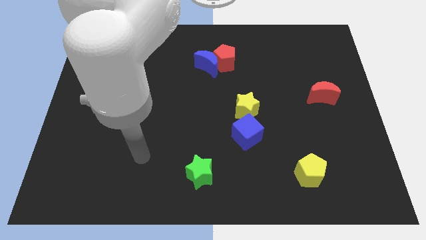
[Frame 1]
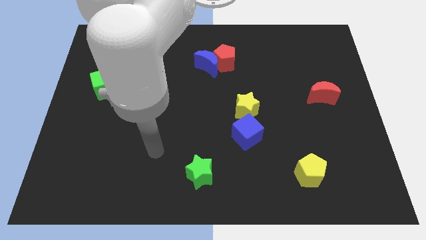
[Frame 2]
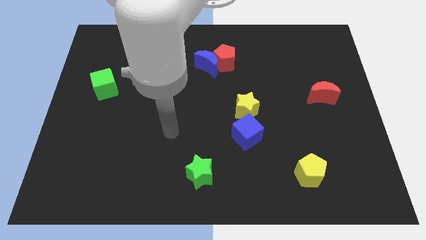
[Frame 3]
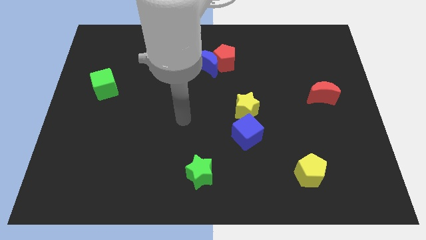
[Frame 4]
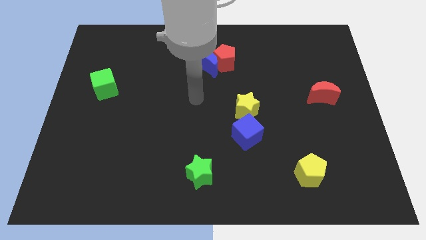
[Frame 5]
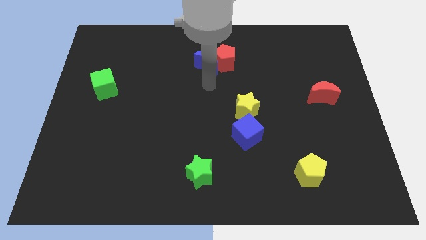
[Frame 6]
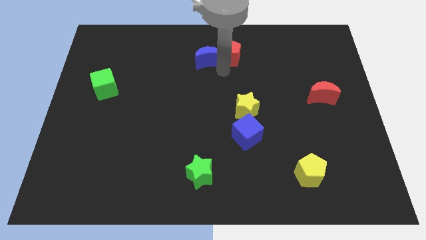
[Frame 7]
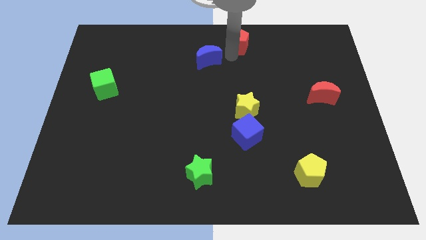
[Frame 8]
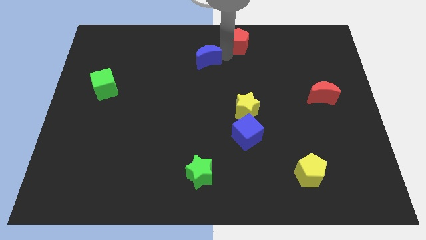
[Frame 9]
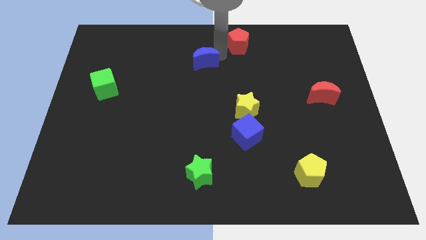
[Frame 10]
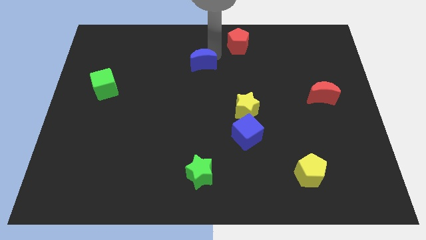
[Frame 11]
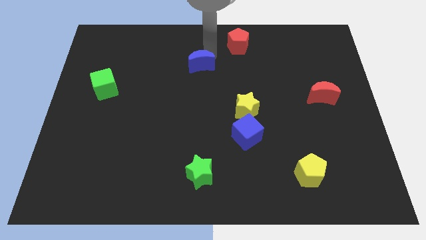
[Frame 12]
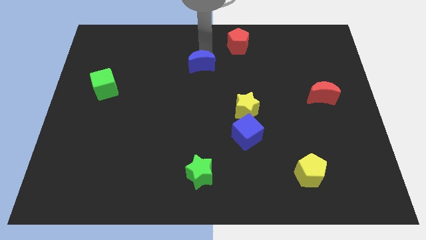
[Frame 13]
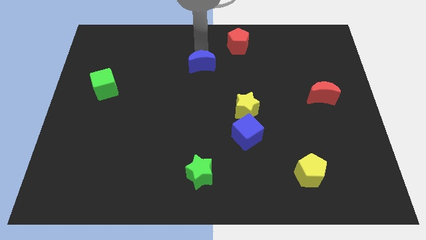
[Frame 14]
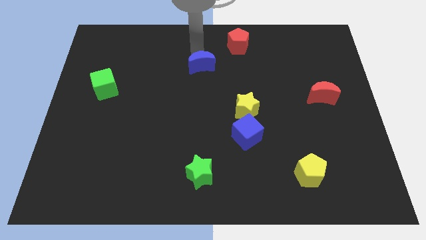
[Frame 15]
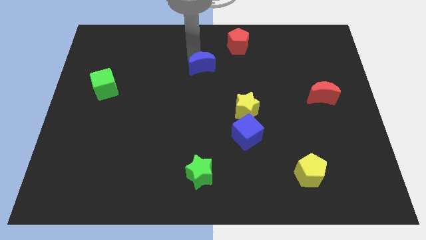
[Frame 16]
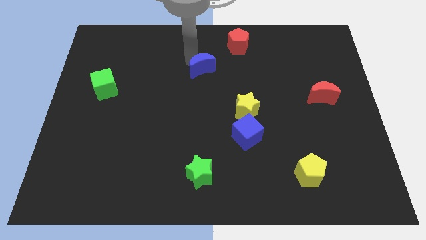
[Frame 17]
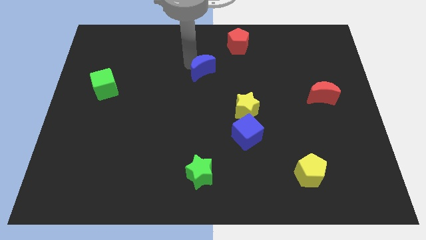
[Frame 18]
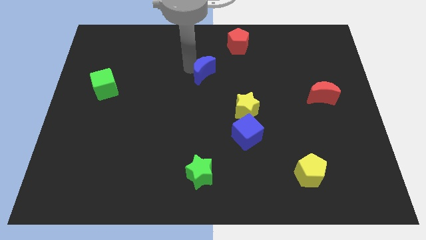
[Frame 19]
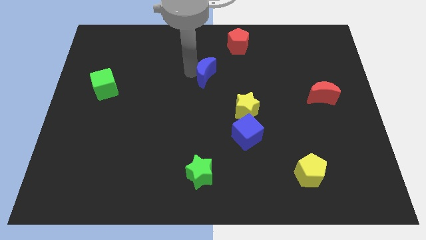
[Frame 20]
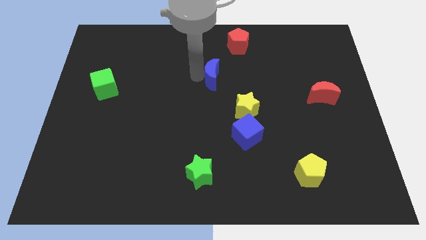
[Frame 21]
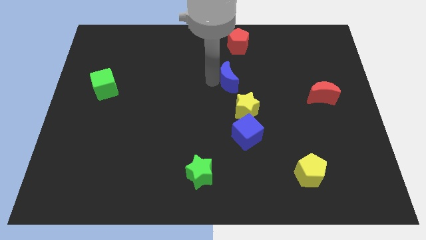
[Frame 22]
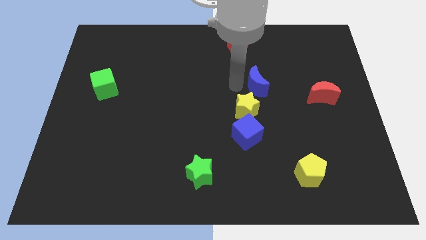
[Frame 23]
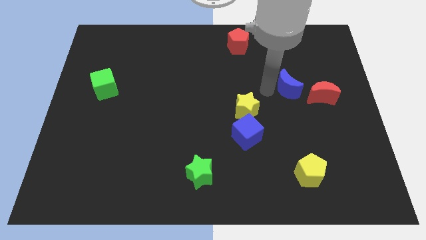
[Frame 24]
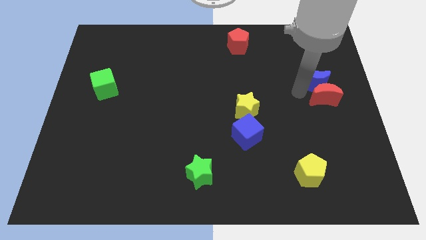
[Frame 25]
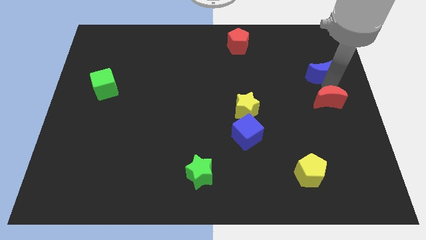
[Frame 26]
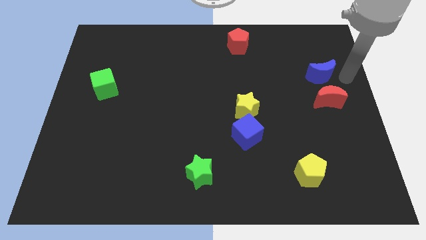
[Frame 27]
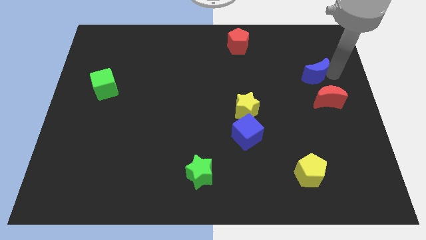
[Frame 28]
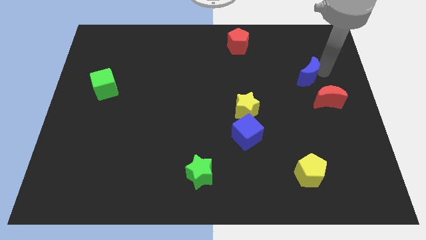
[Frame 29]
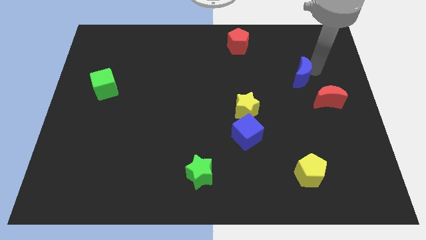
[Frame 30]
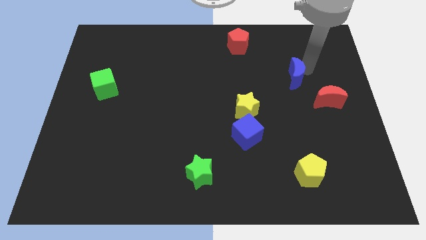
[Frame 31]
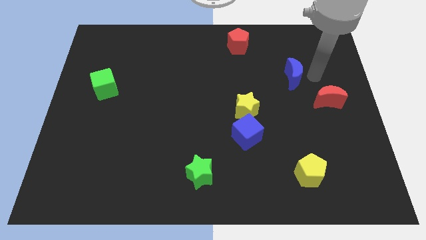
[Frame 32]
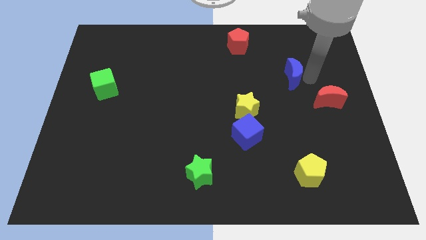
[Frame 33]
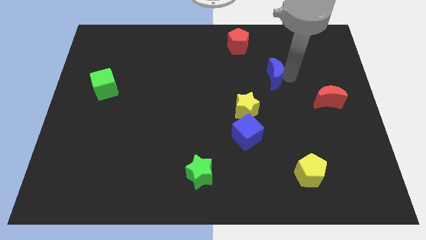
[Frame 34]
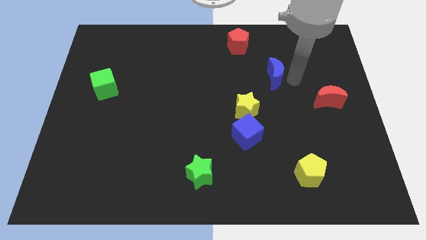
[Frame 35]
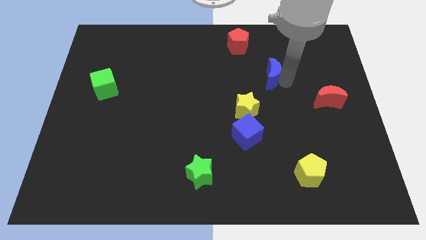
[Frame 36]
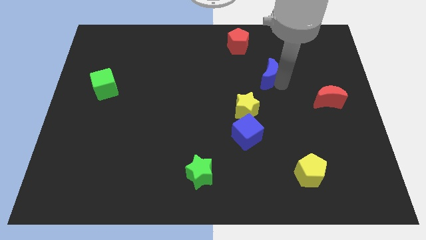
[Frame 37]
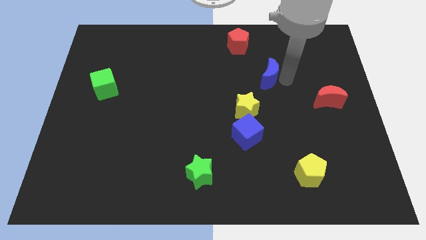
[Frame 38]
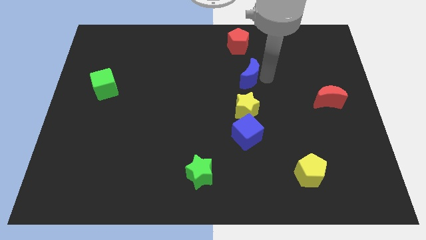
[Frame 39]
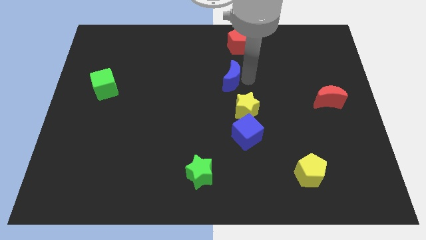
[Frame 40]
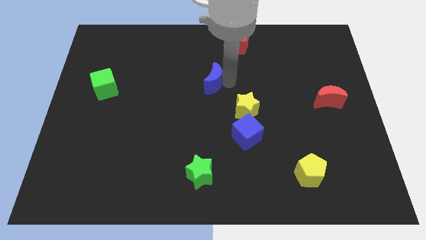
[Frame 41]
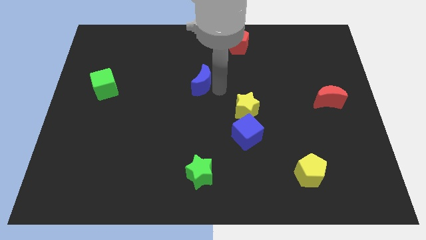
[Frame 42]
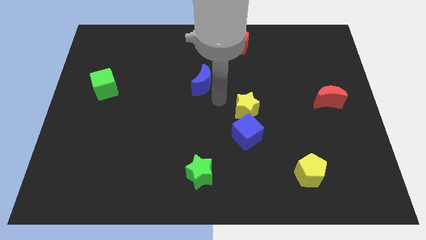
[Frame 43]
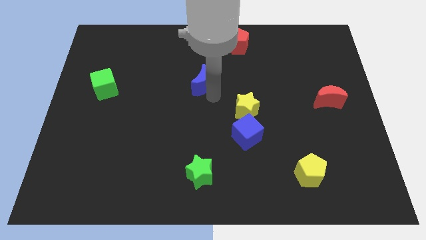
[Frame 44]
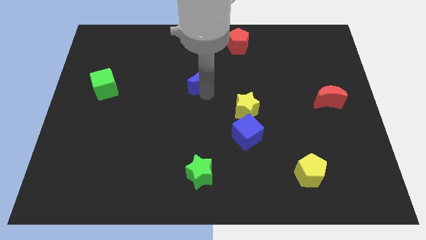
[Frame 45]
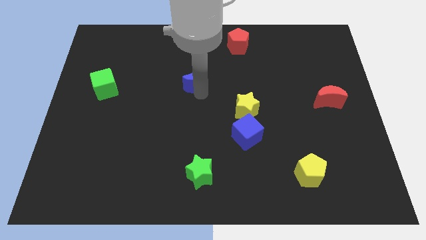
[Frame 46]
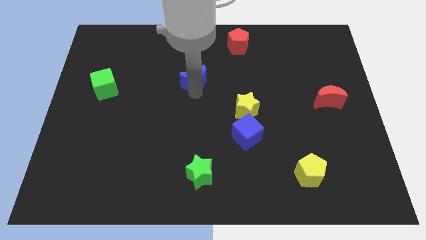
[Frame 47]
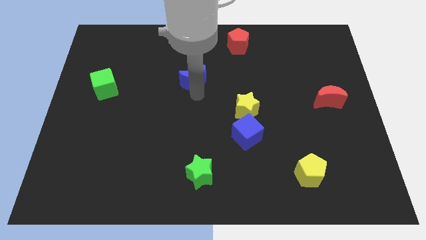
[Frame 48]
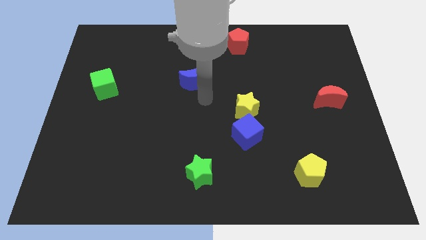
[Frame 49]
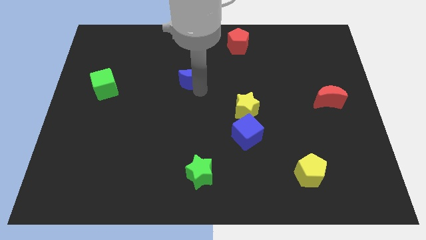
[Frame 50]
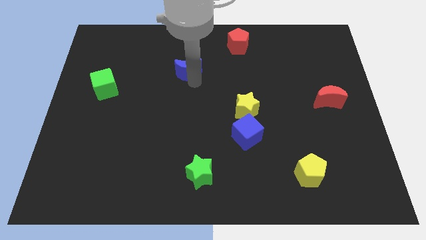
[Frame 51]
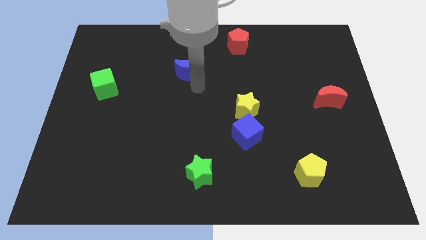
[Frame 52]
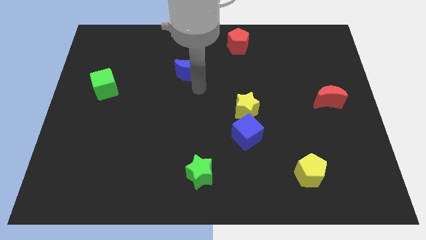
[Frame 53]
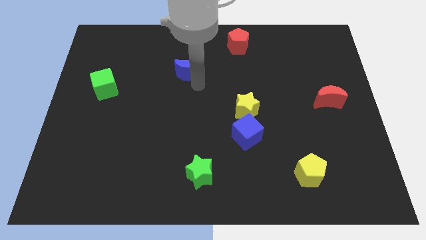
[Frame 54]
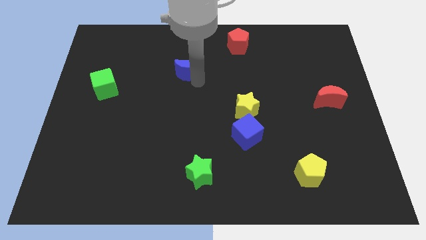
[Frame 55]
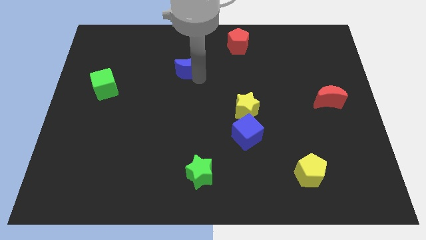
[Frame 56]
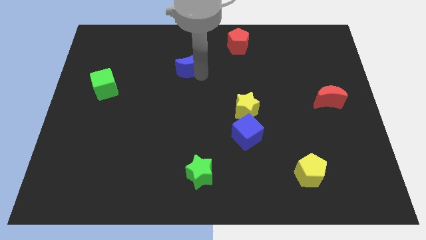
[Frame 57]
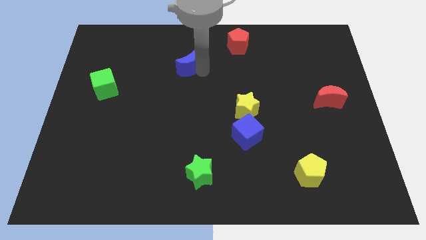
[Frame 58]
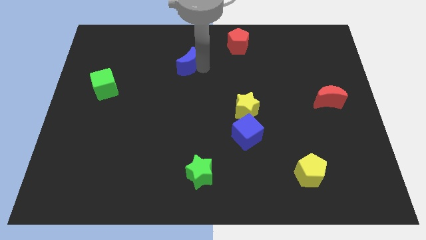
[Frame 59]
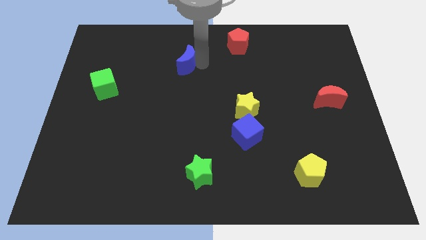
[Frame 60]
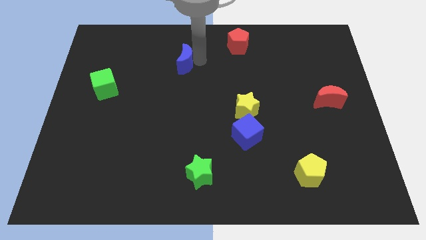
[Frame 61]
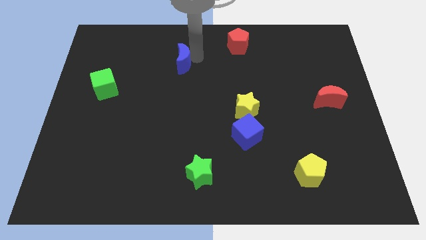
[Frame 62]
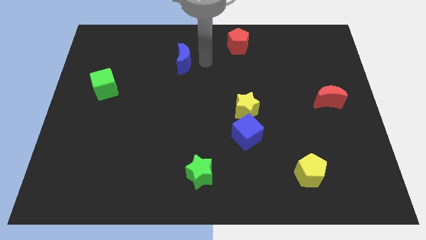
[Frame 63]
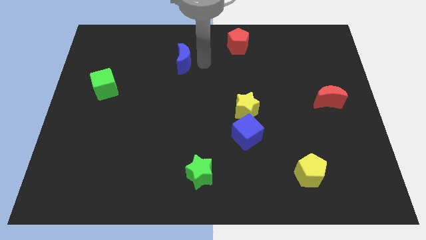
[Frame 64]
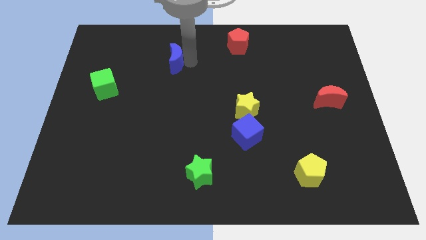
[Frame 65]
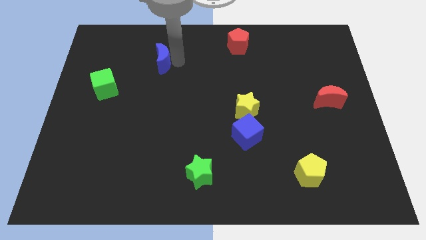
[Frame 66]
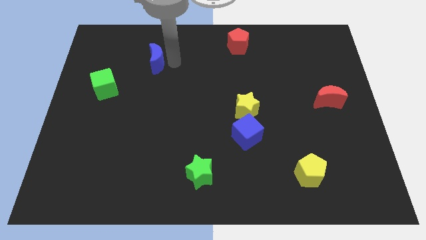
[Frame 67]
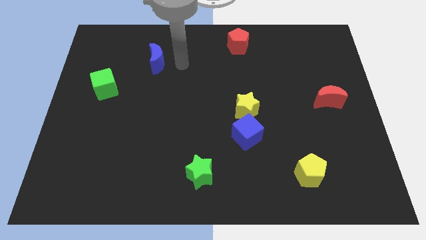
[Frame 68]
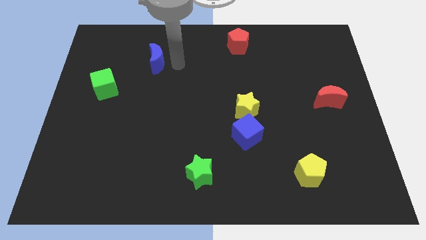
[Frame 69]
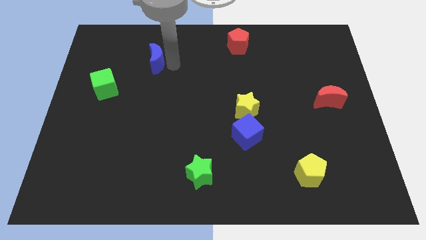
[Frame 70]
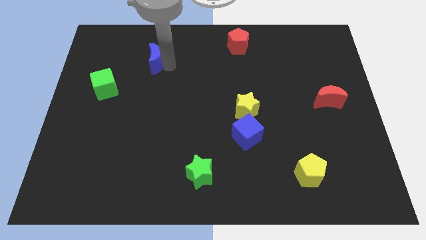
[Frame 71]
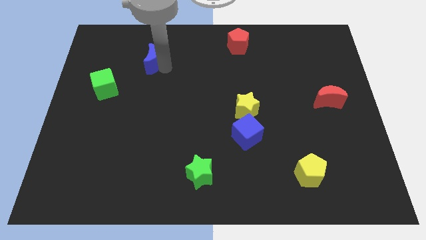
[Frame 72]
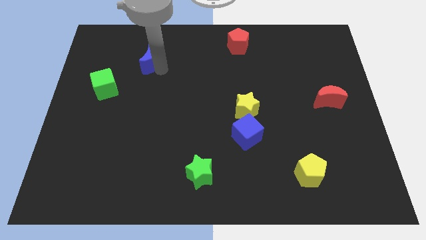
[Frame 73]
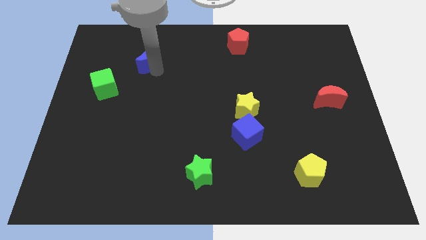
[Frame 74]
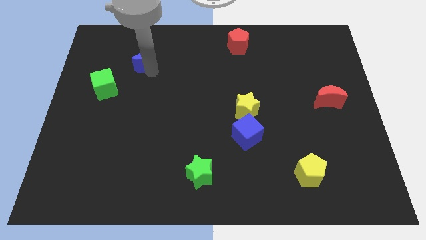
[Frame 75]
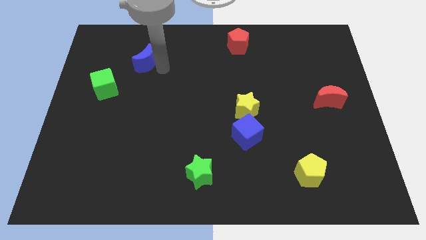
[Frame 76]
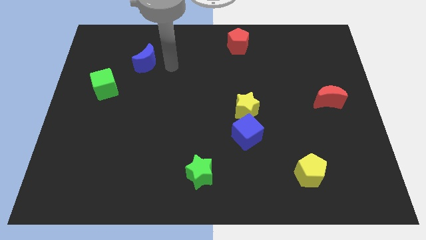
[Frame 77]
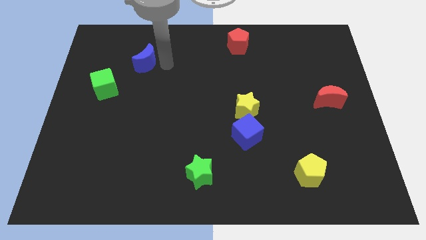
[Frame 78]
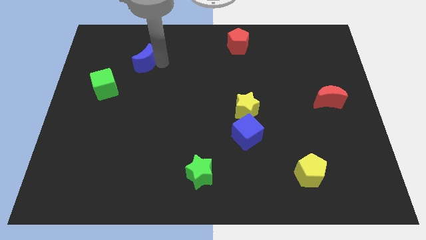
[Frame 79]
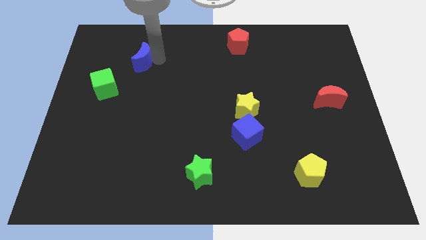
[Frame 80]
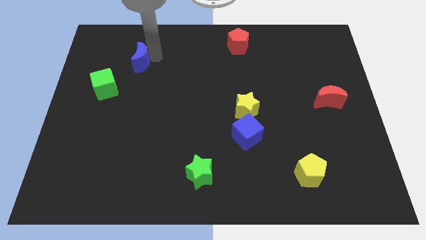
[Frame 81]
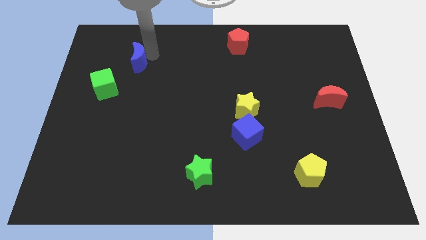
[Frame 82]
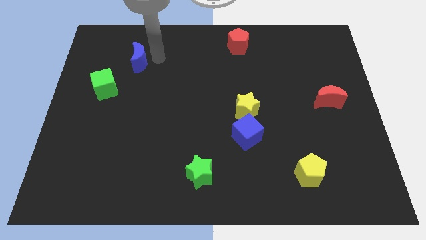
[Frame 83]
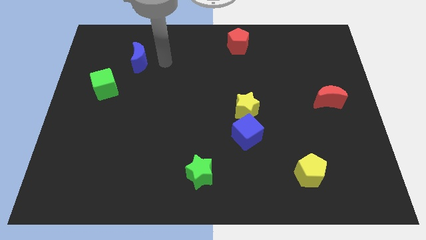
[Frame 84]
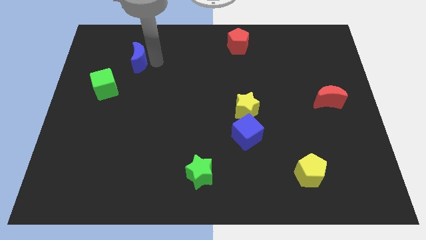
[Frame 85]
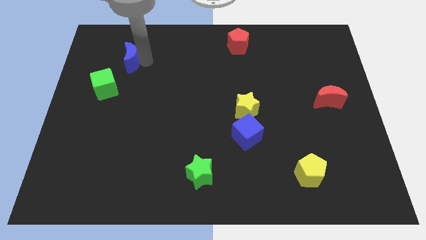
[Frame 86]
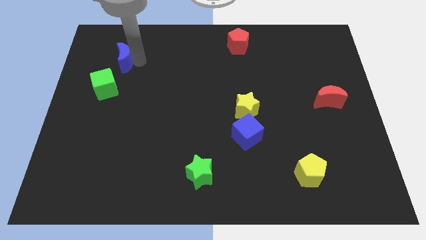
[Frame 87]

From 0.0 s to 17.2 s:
move the blue moon to the top side of the green cube
